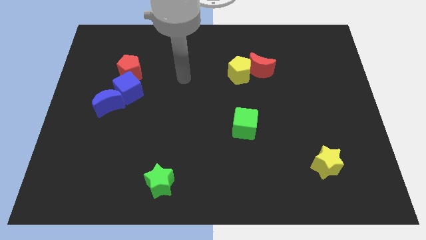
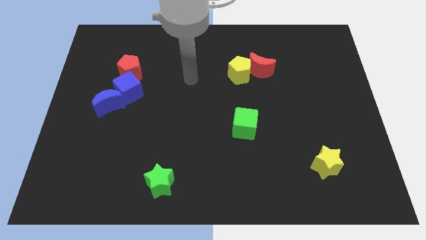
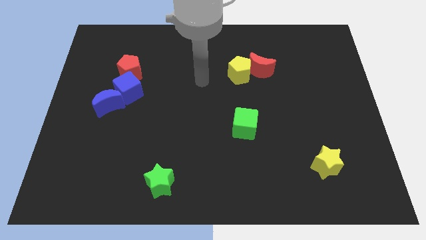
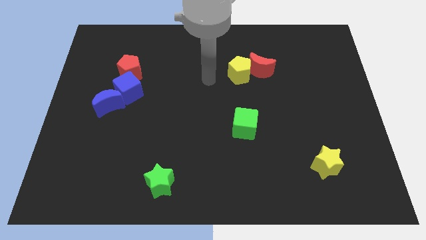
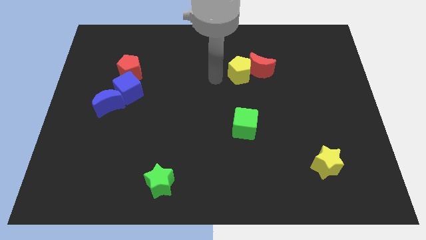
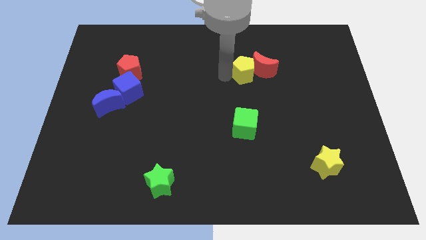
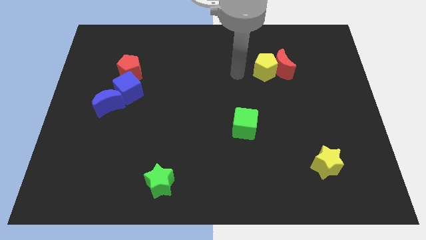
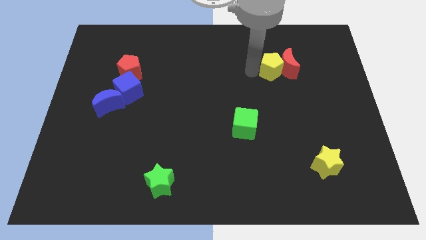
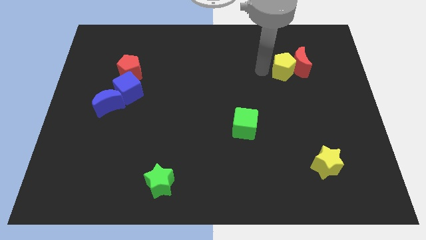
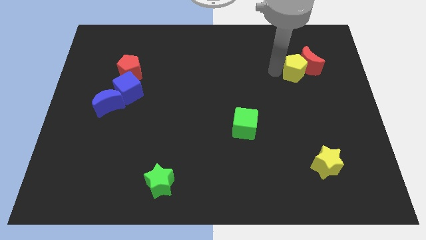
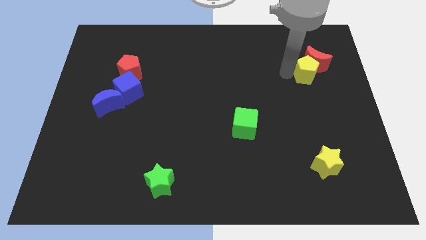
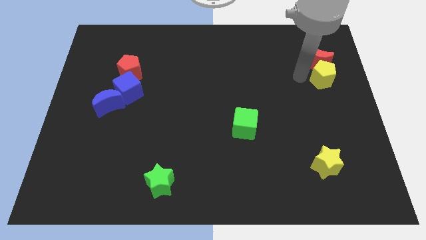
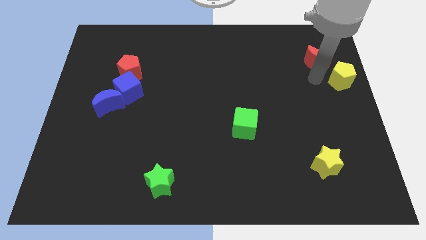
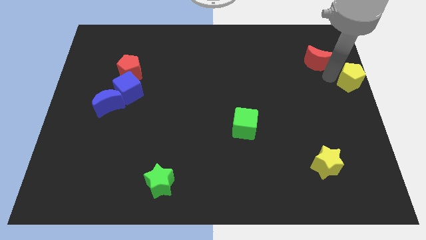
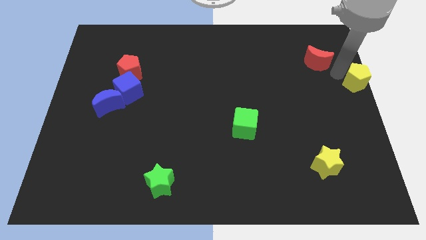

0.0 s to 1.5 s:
separate the red moon from the yellow pentagon

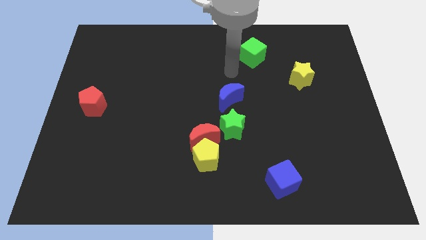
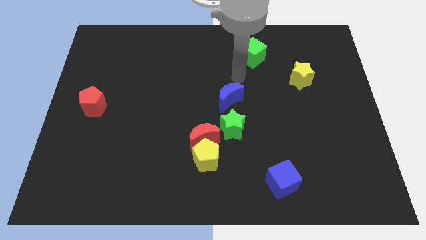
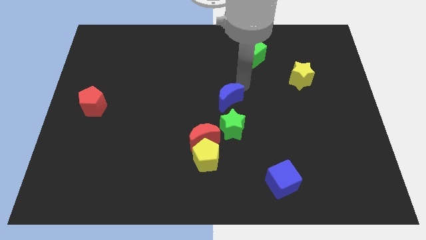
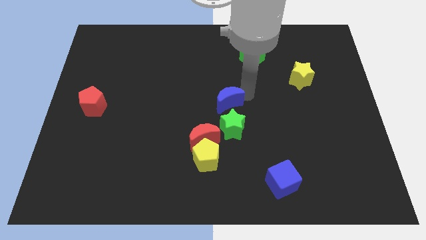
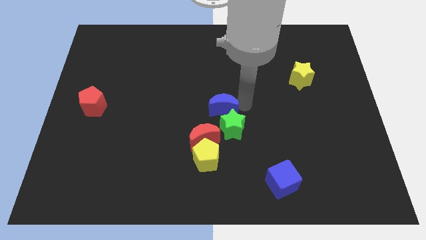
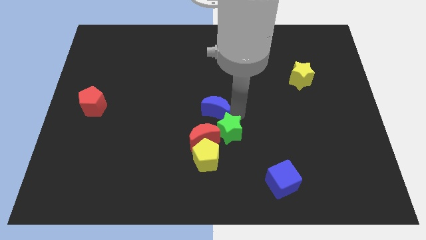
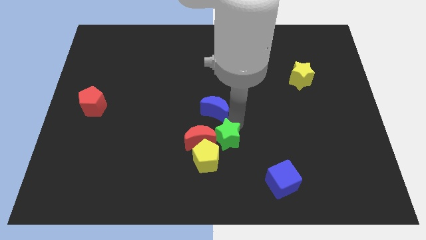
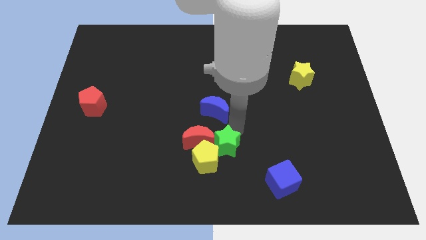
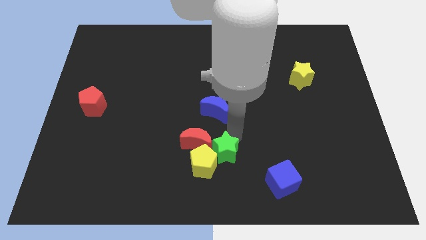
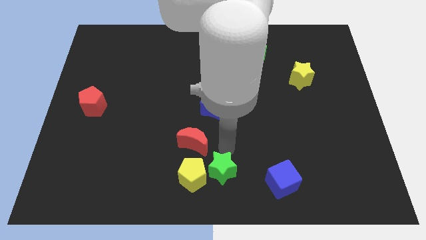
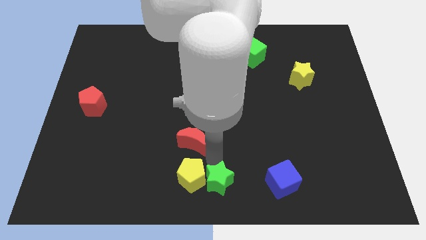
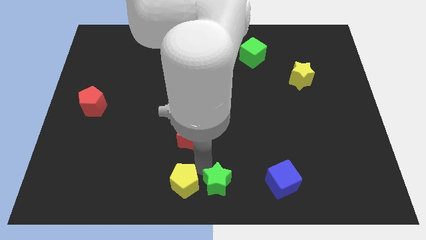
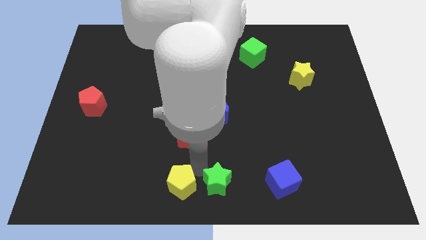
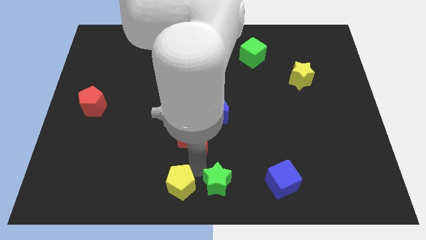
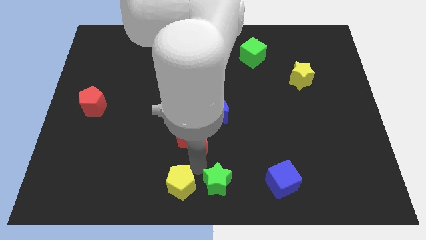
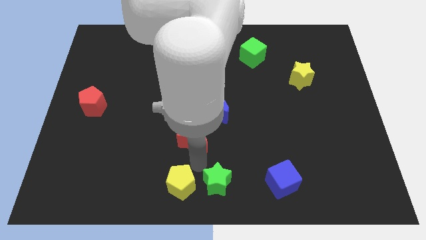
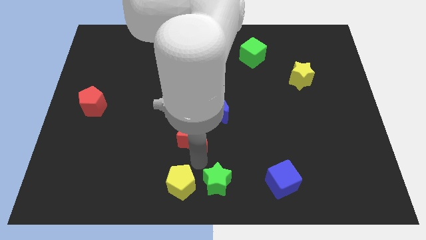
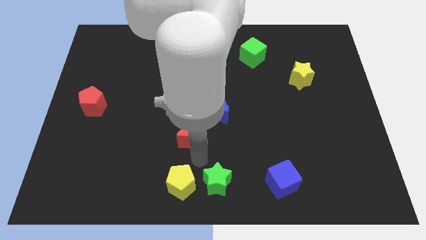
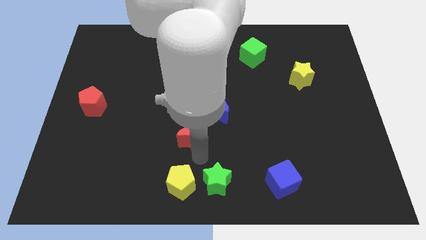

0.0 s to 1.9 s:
separate the red moon from the yellow pentagon and green star

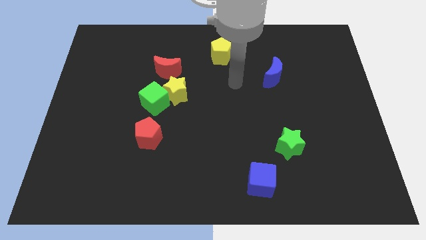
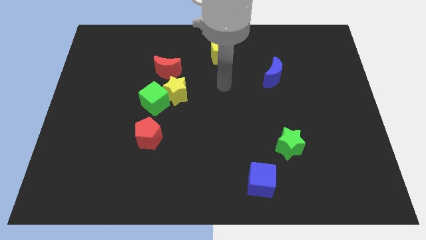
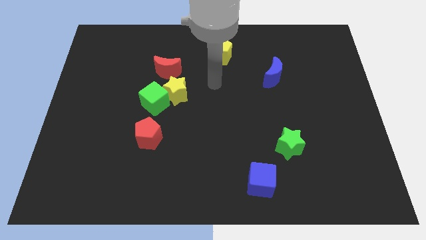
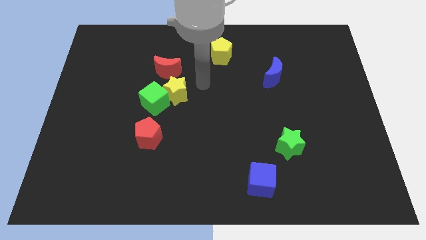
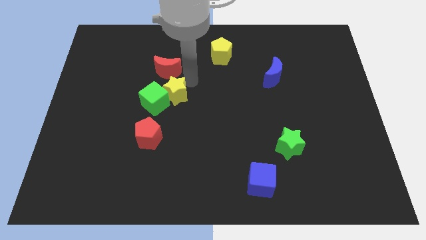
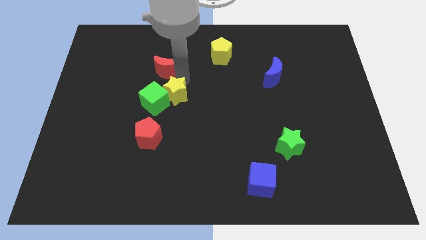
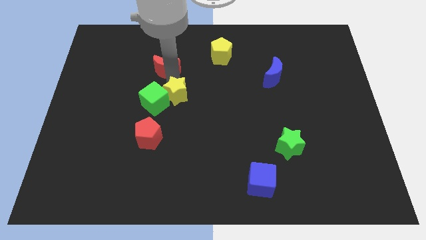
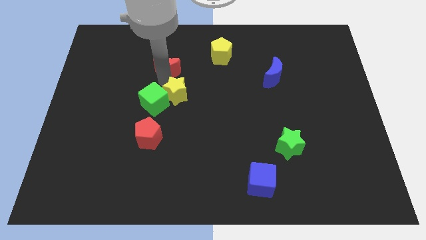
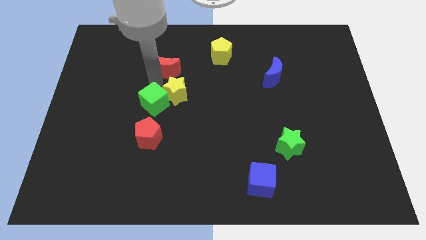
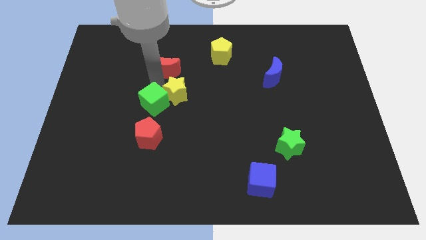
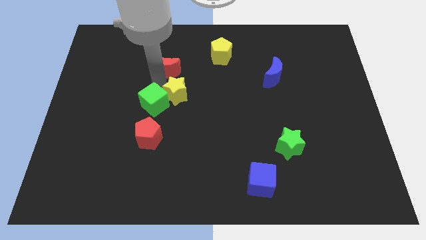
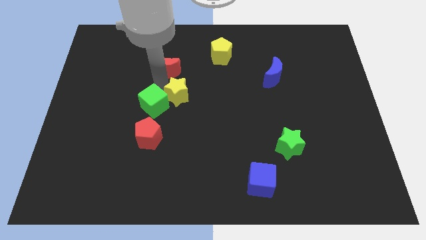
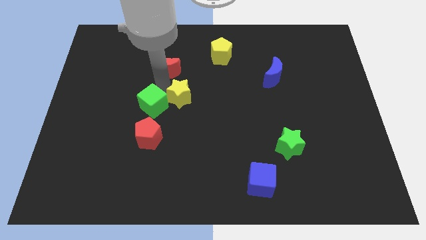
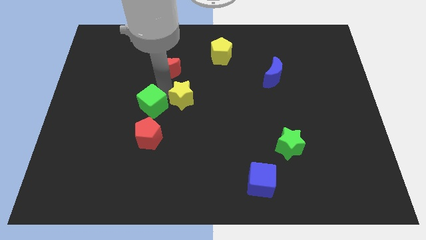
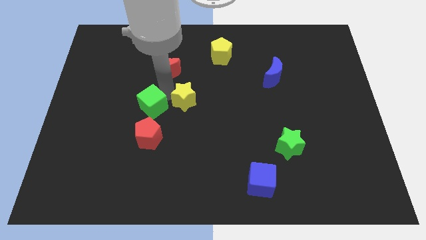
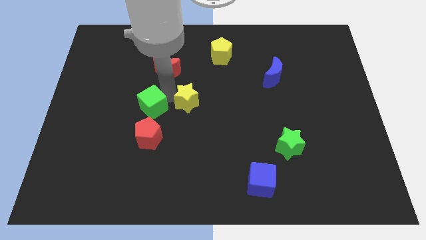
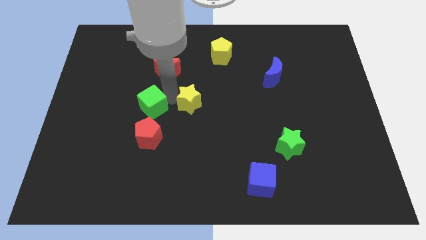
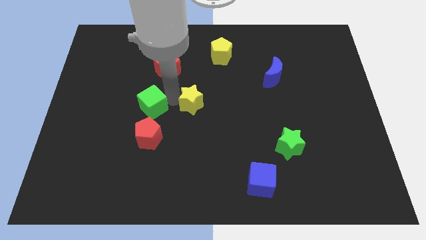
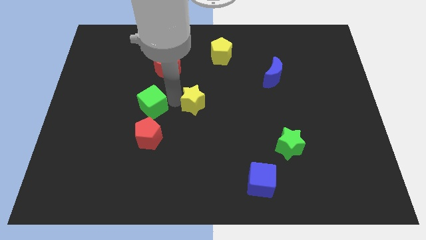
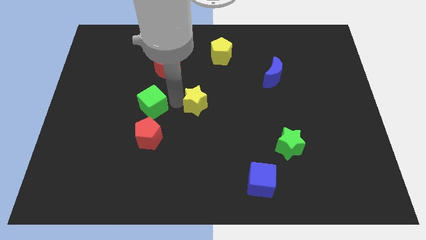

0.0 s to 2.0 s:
move the yellow star away from the green cube and red moon

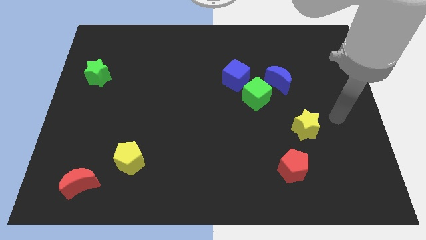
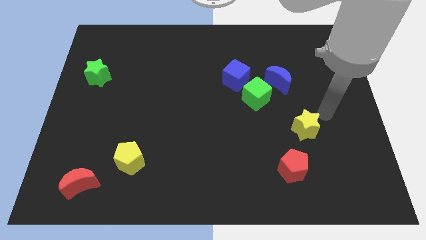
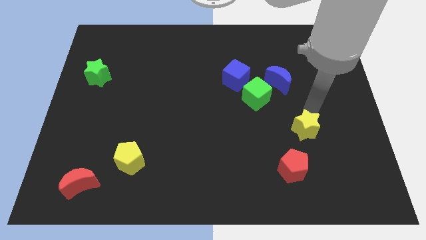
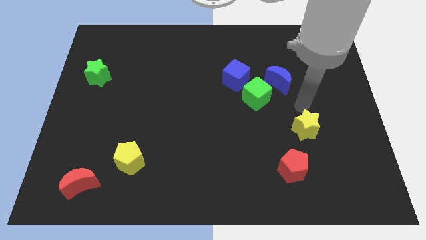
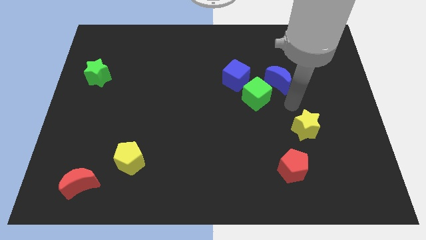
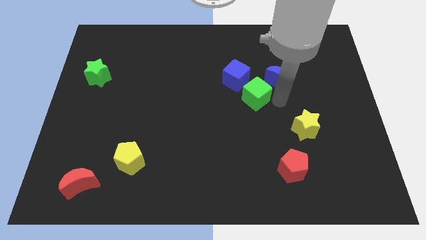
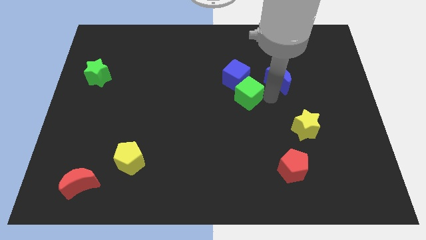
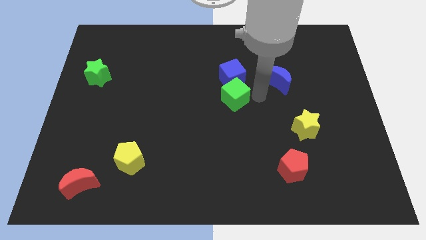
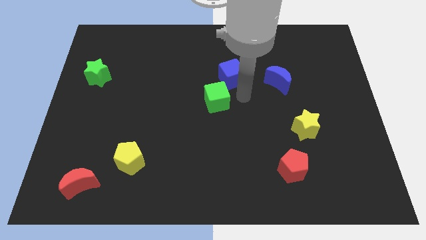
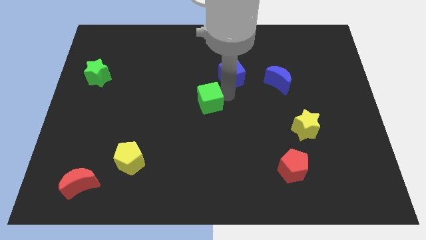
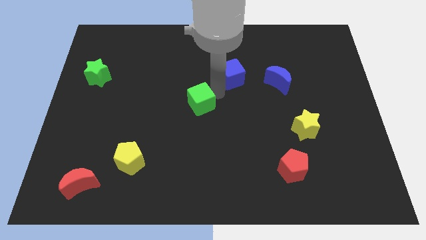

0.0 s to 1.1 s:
separate the blue cube from the green cube

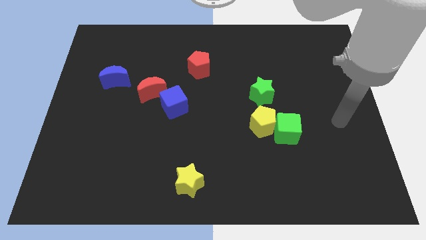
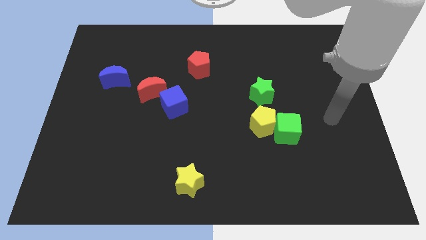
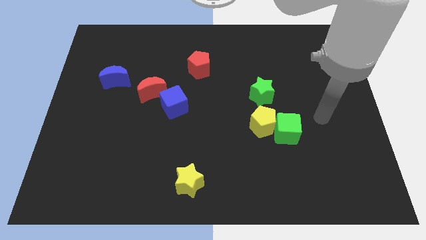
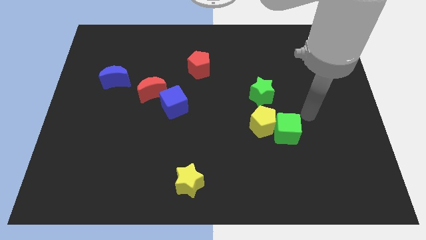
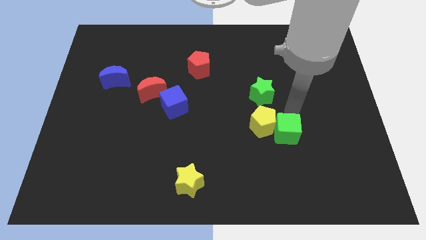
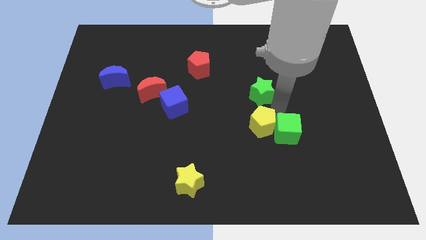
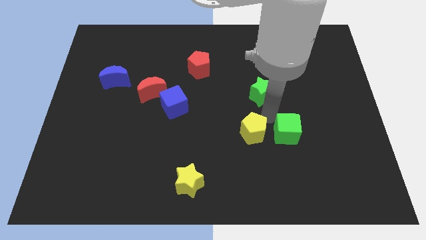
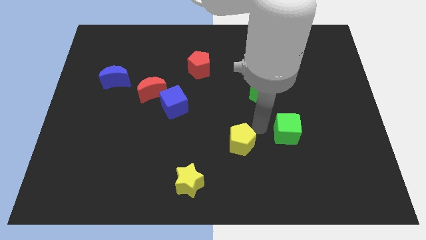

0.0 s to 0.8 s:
separate the green cube from the yellow pentagon

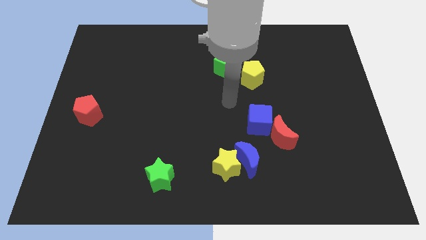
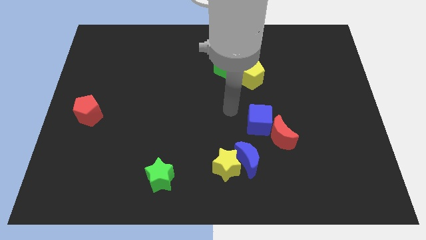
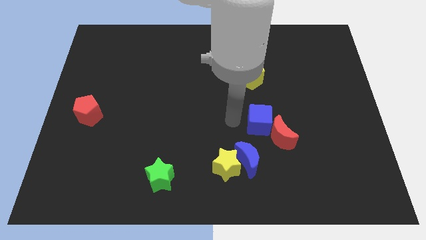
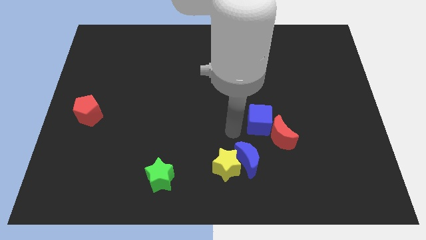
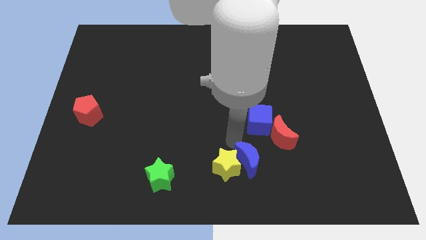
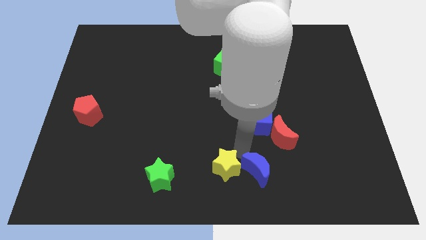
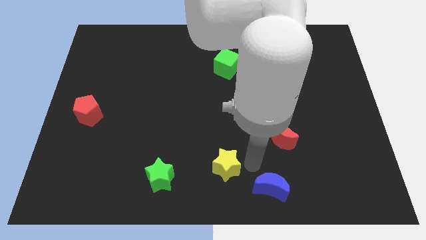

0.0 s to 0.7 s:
pull the yellow star apart from the blue moon

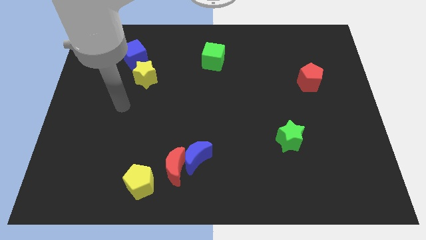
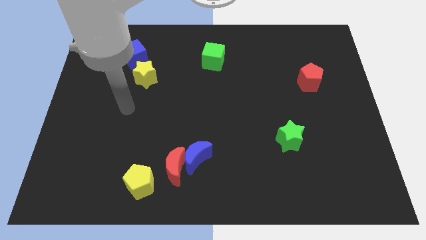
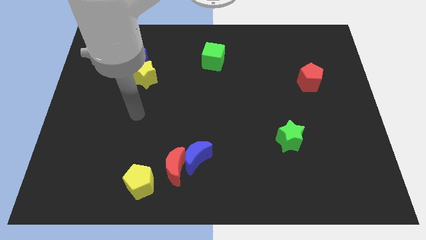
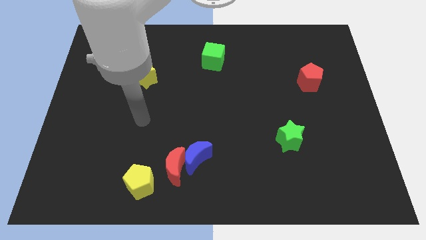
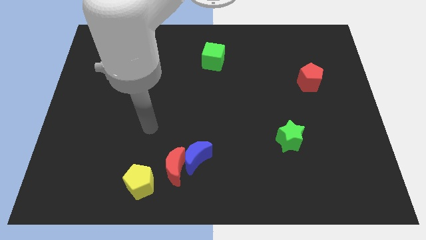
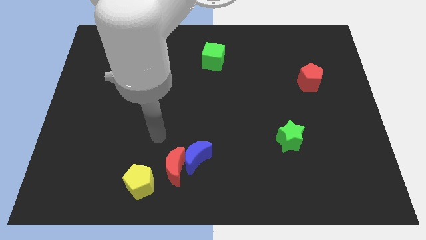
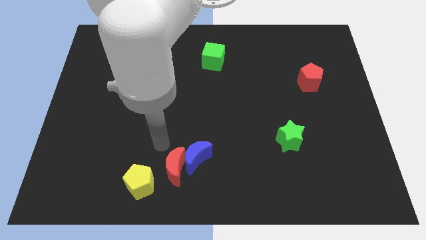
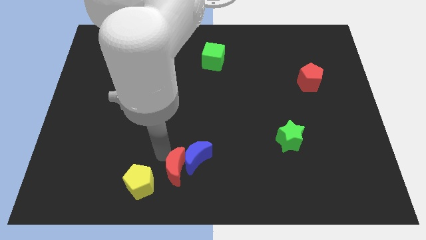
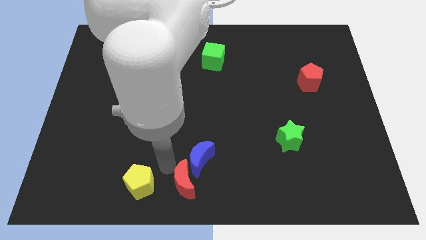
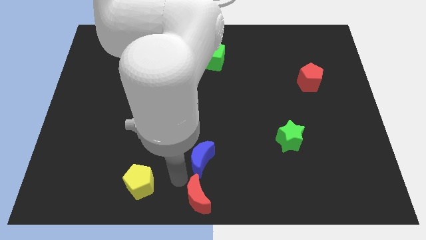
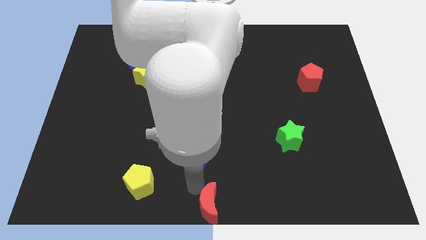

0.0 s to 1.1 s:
move the blue moon away from the red moon

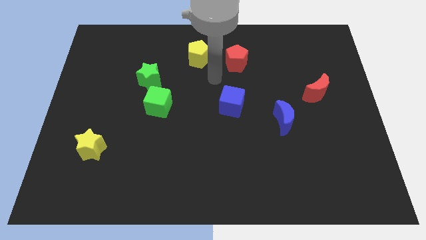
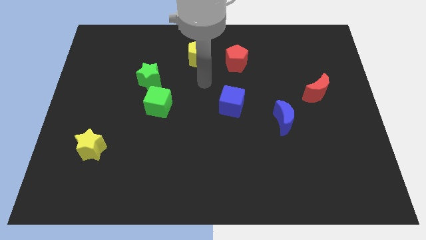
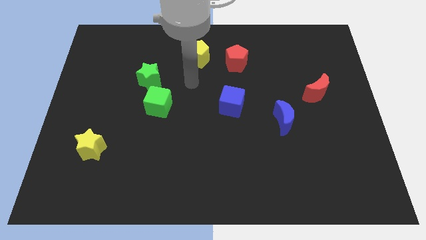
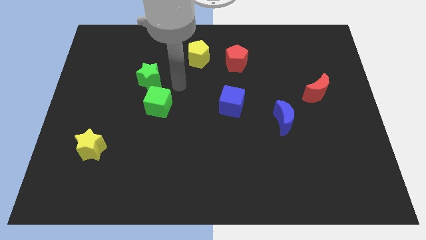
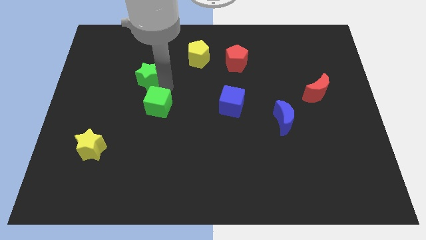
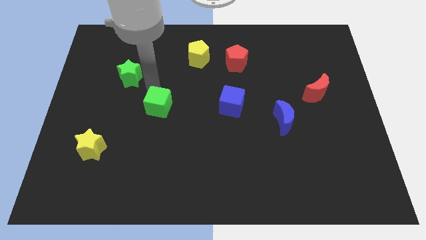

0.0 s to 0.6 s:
pull the green cube apart from the green star
